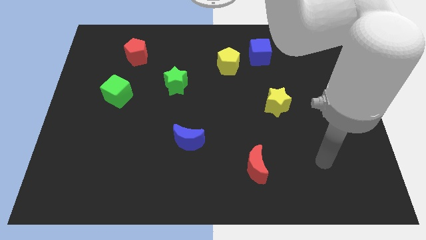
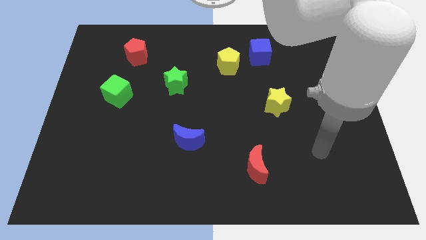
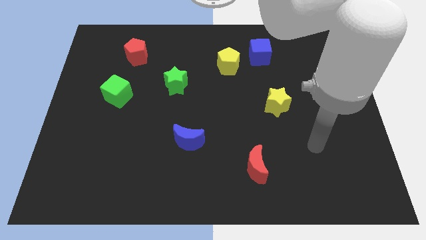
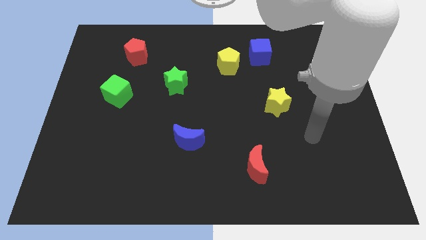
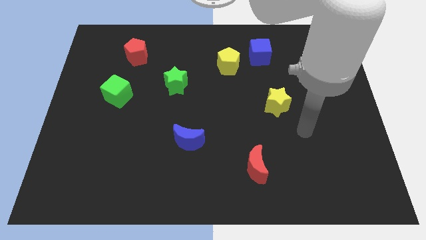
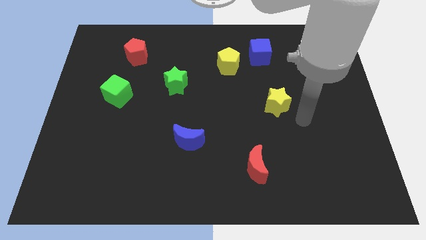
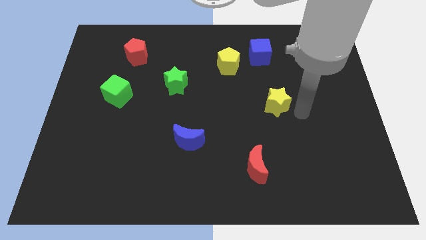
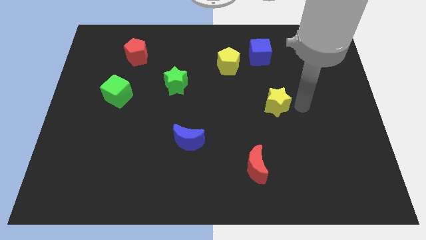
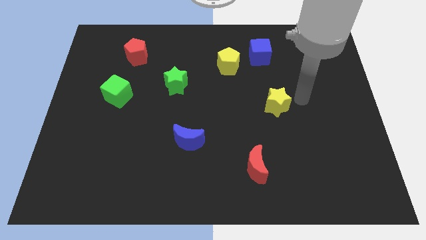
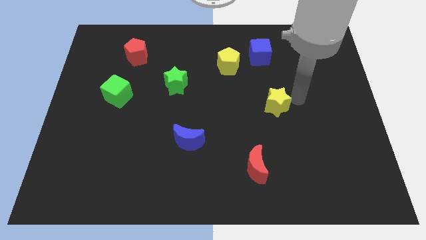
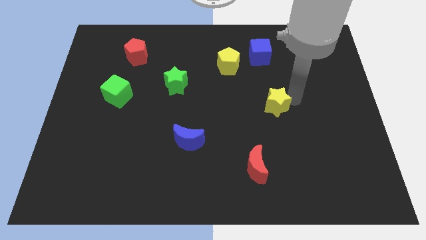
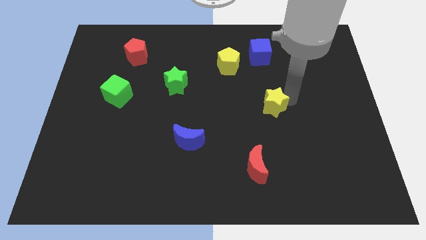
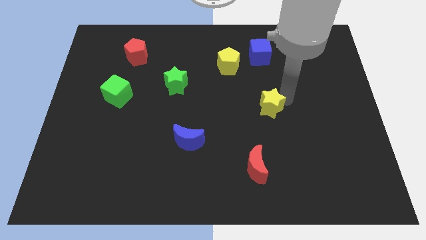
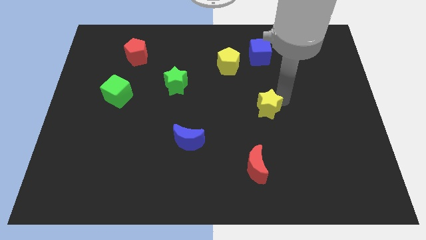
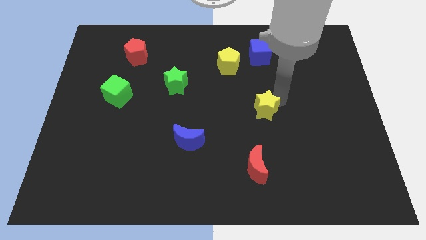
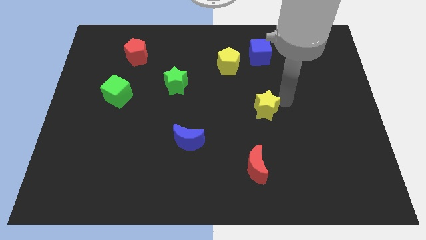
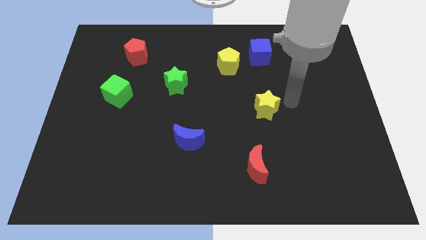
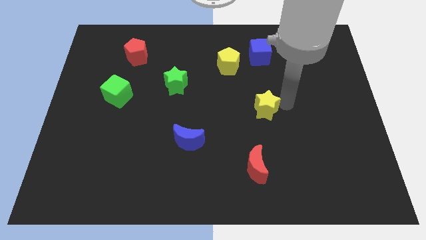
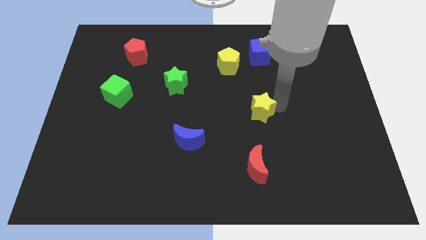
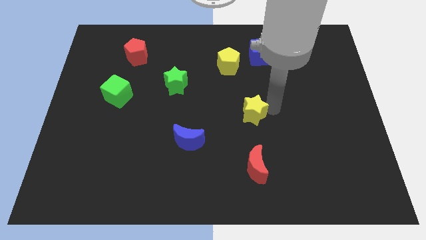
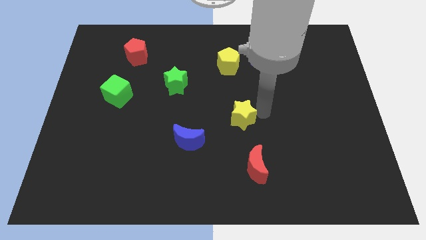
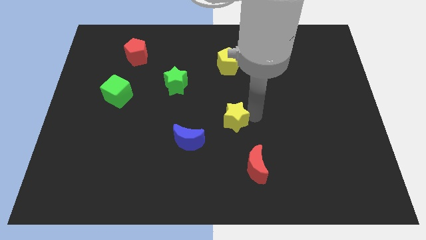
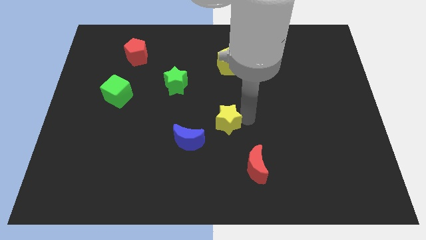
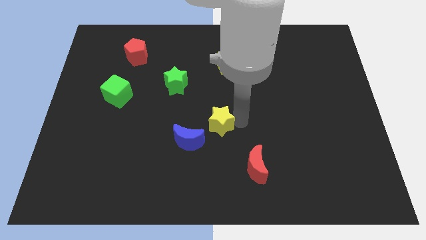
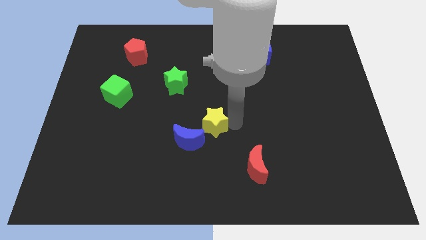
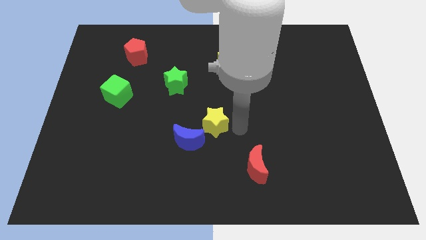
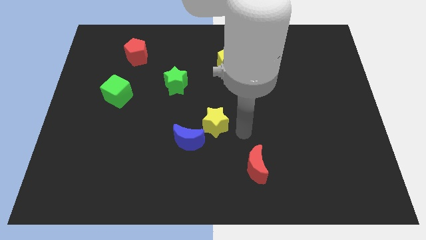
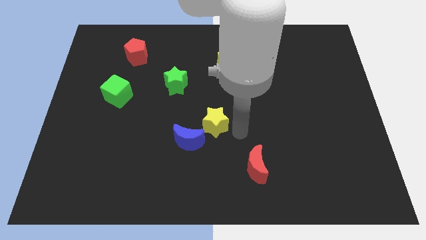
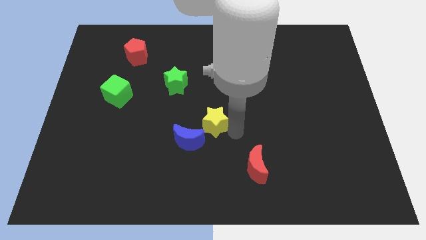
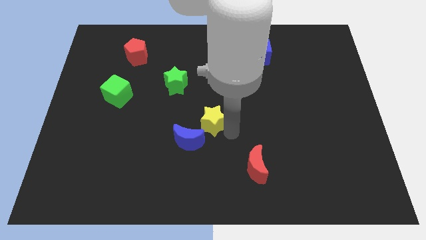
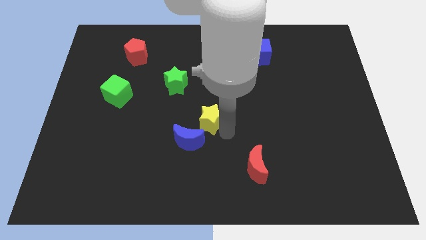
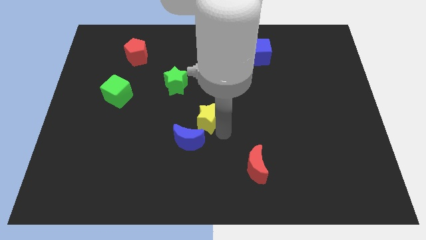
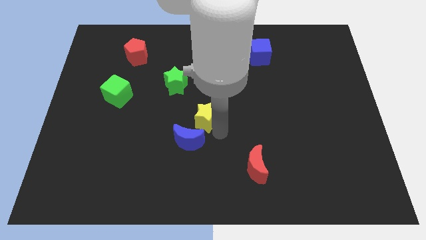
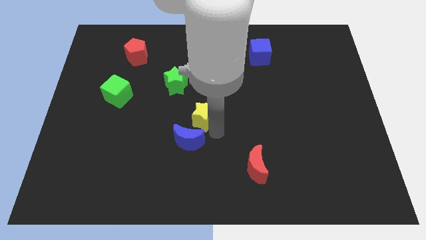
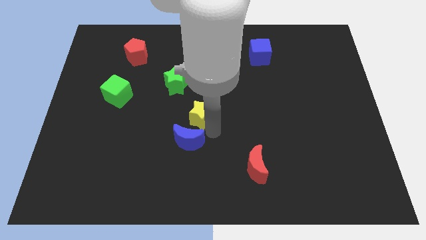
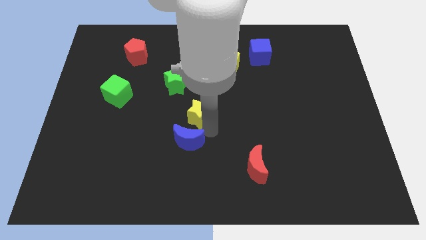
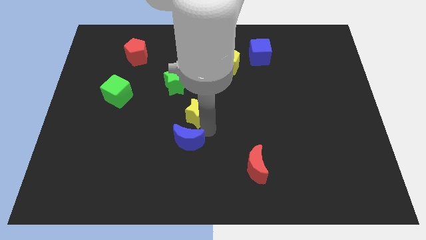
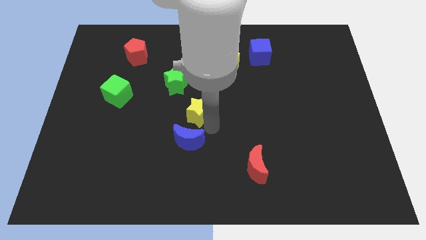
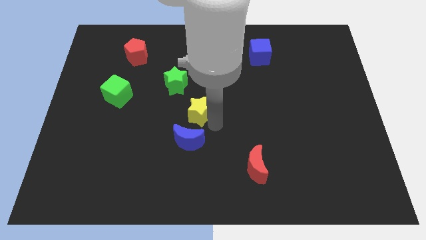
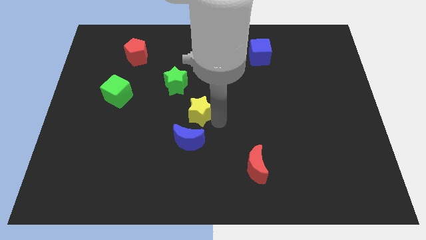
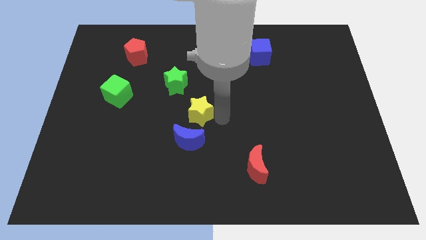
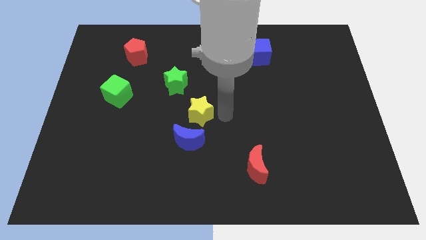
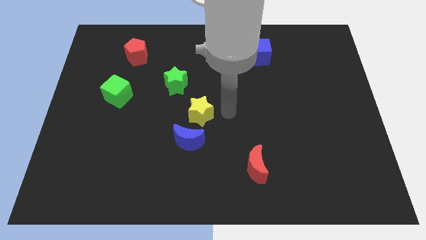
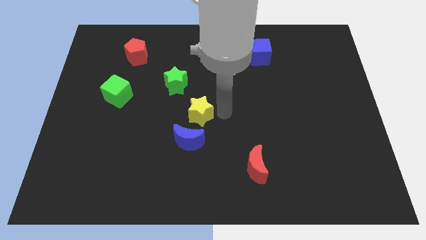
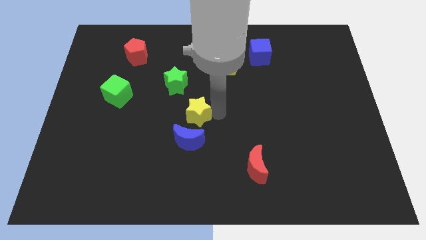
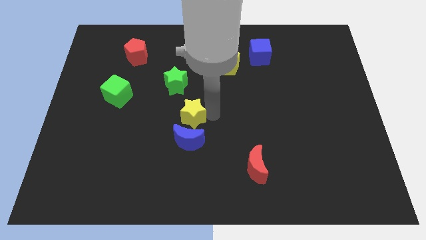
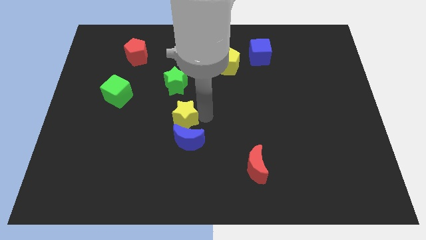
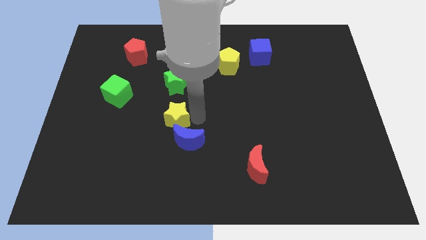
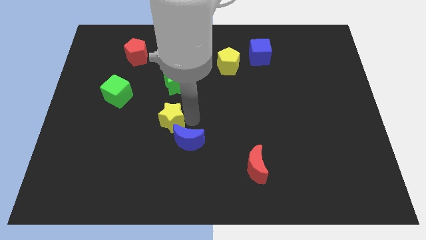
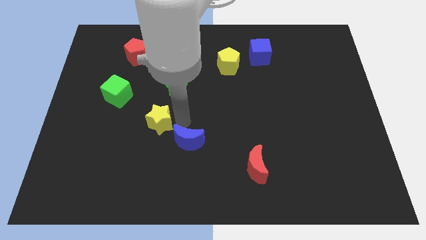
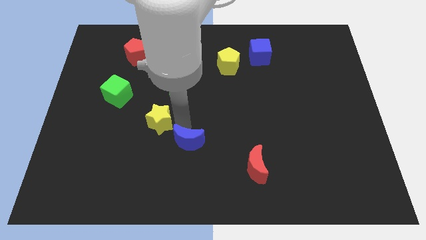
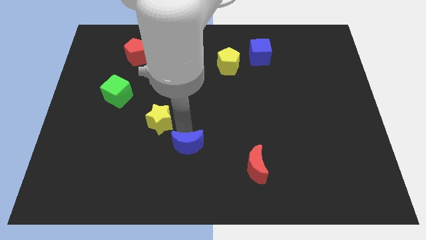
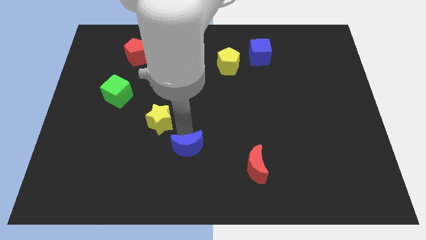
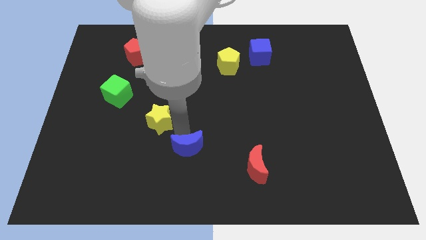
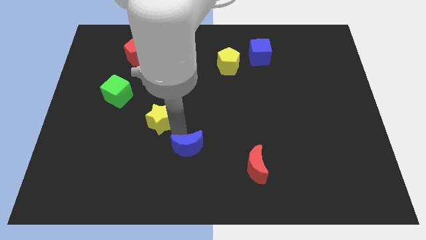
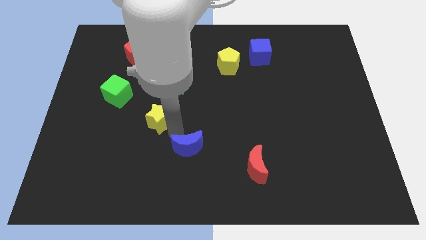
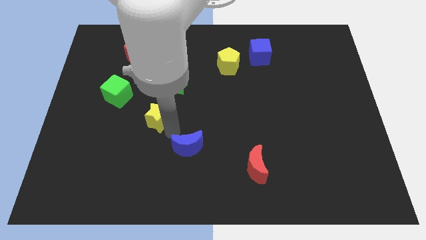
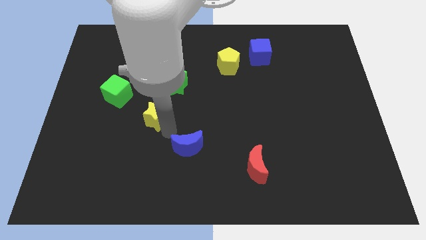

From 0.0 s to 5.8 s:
move the yellow star to the bottom right of the green cube

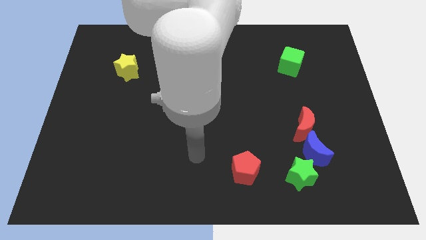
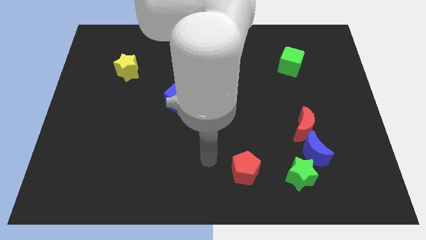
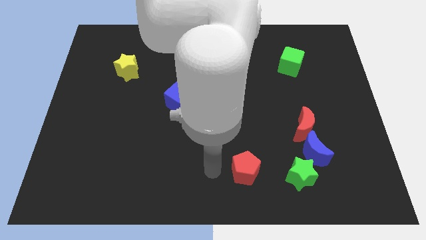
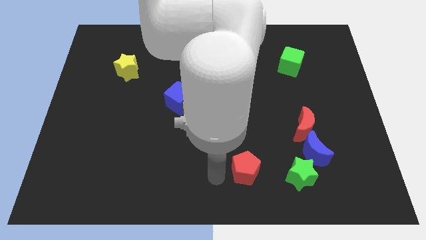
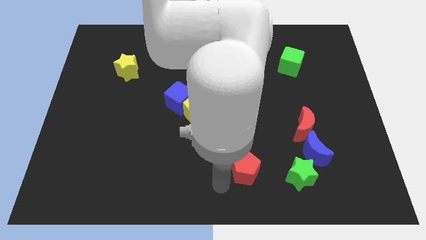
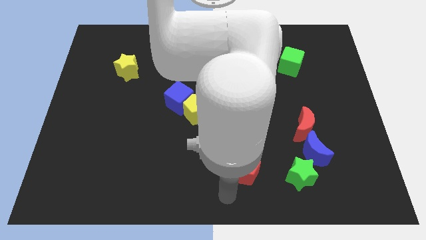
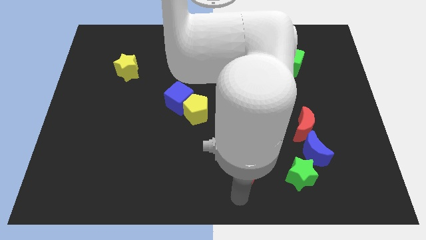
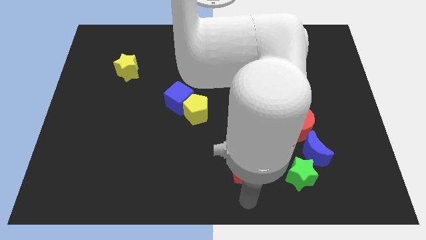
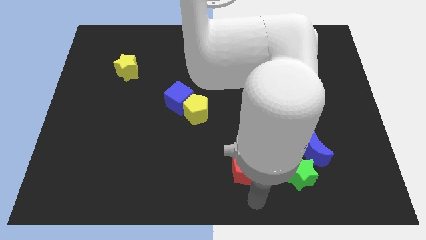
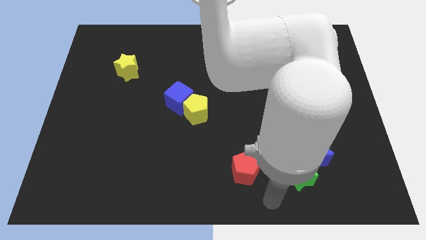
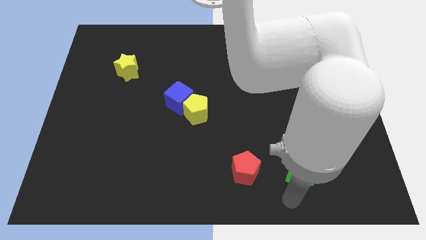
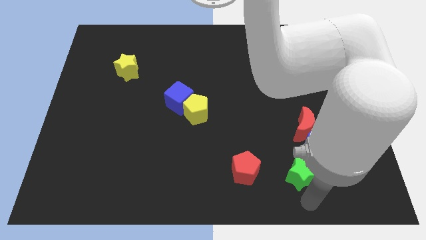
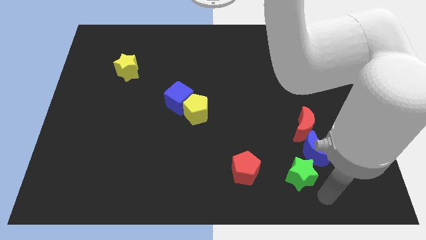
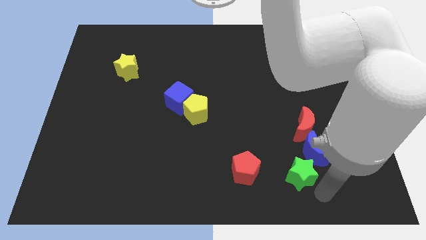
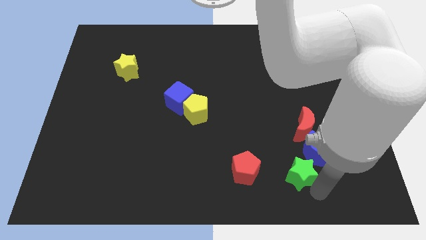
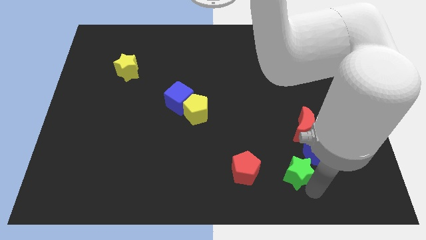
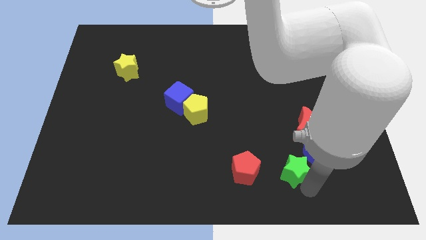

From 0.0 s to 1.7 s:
push the green star to the left of the blue moon
